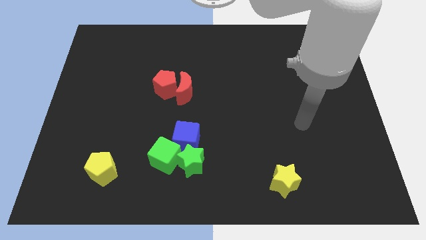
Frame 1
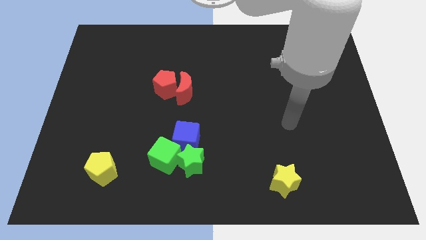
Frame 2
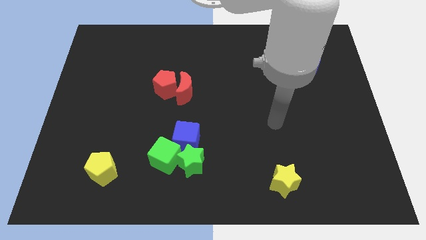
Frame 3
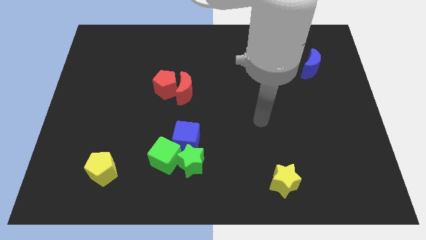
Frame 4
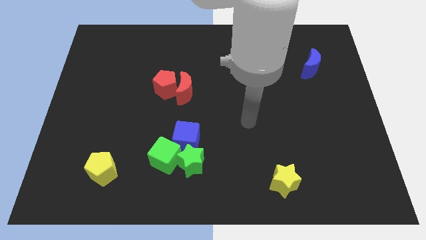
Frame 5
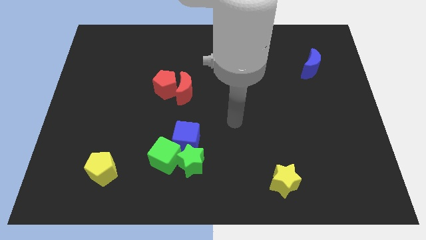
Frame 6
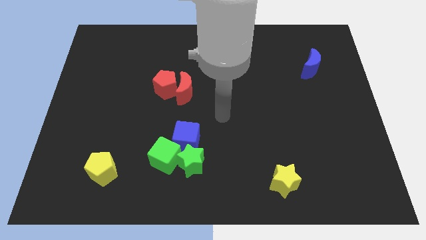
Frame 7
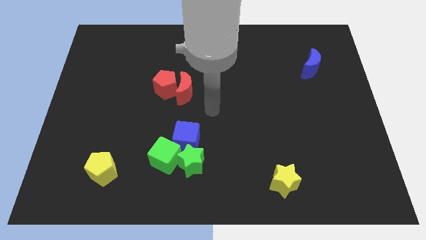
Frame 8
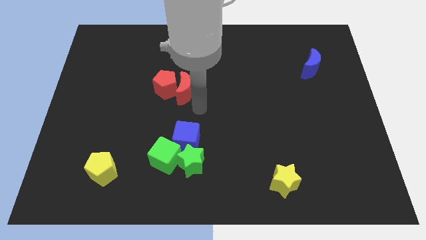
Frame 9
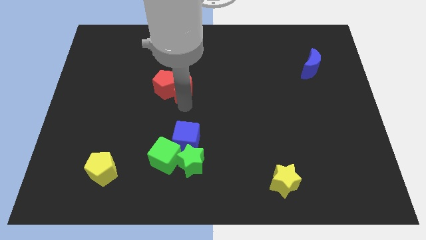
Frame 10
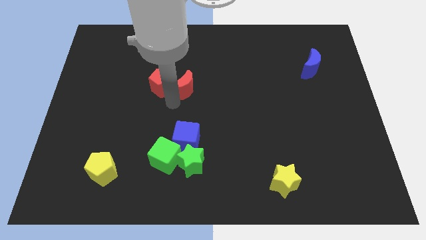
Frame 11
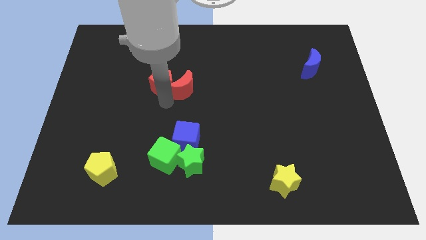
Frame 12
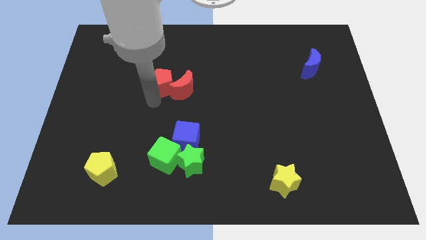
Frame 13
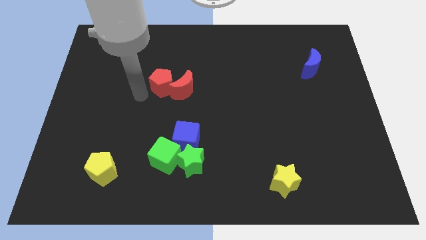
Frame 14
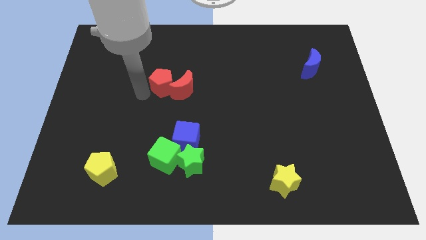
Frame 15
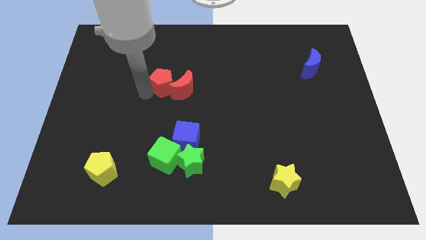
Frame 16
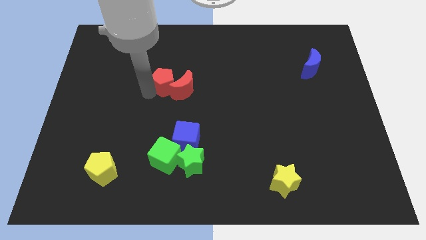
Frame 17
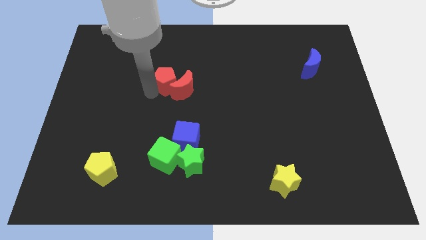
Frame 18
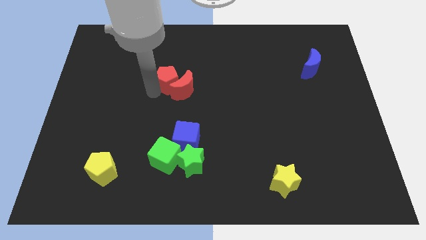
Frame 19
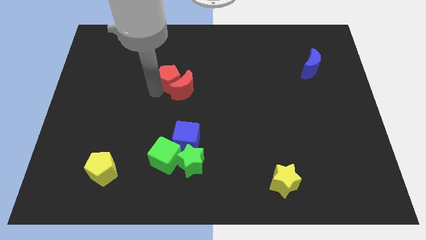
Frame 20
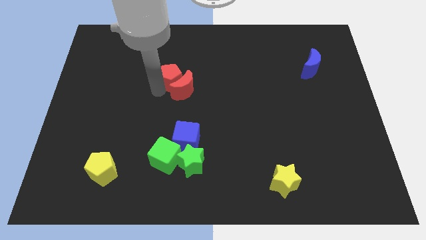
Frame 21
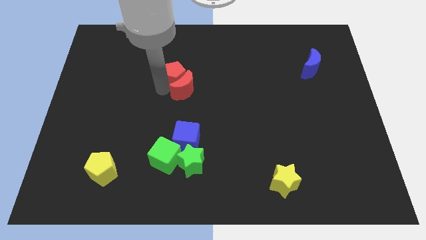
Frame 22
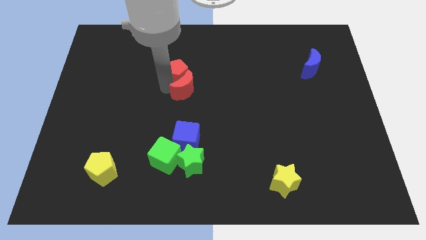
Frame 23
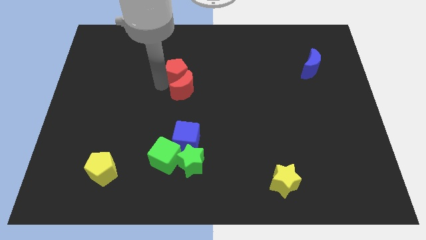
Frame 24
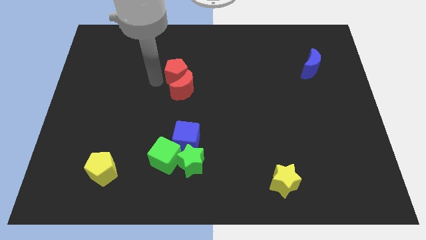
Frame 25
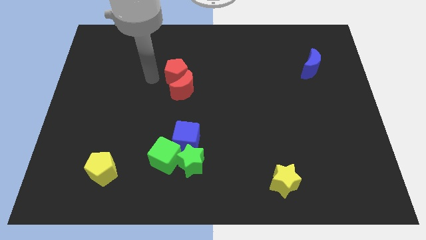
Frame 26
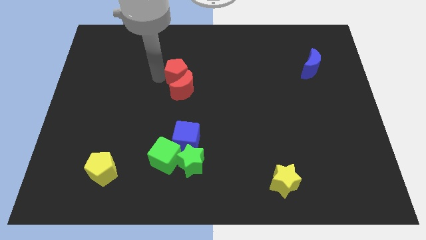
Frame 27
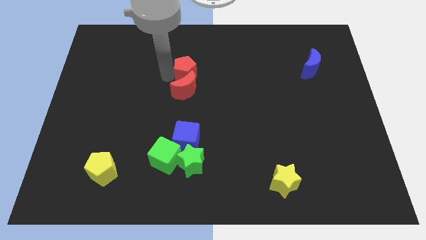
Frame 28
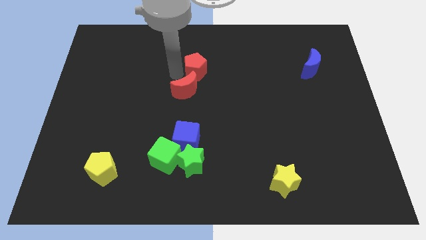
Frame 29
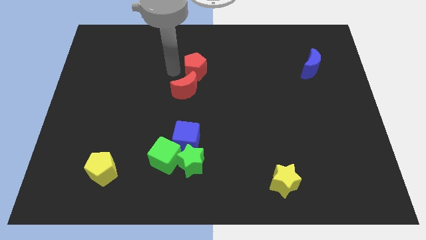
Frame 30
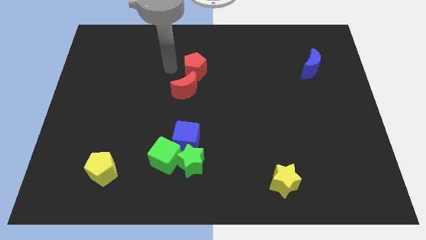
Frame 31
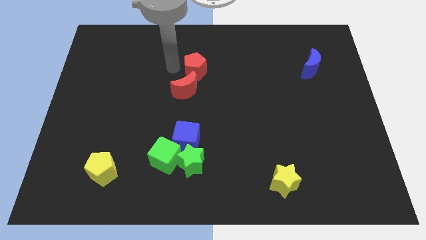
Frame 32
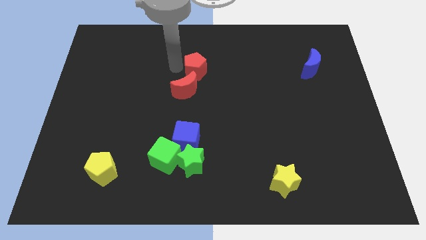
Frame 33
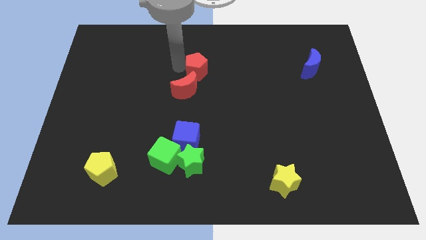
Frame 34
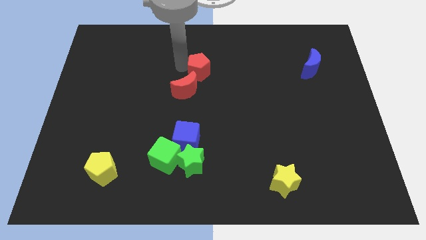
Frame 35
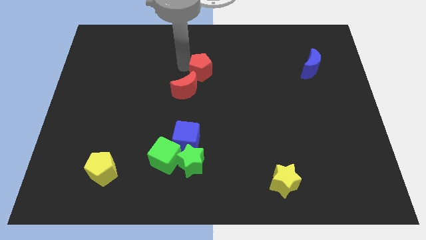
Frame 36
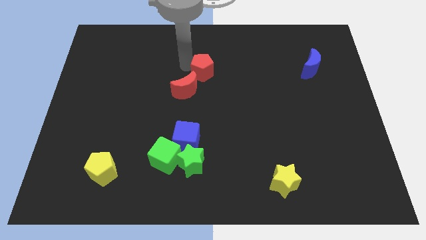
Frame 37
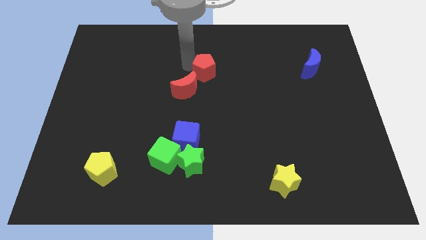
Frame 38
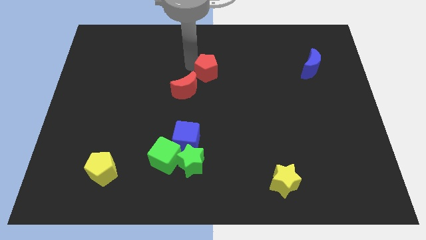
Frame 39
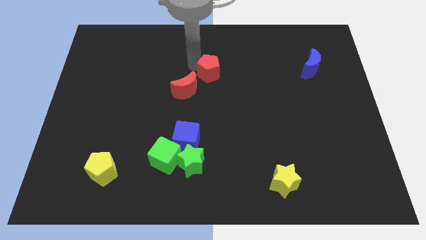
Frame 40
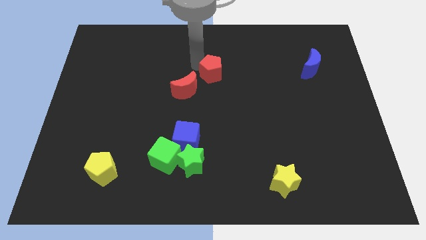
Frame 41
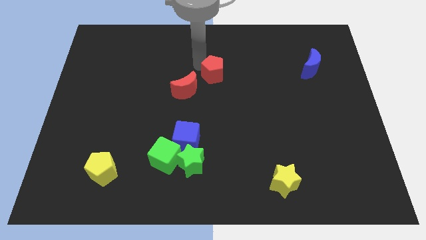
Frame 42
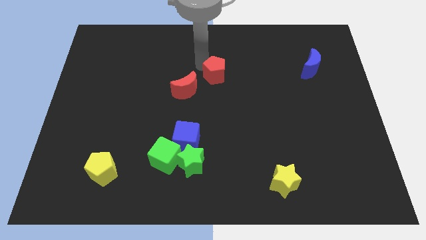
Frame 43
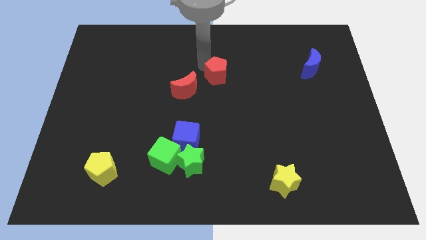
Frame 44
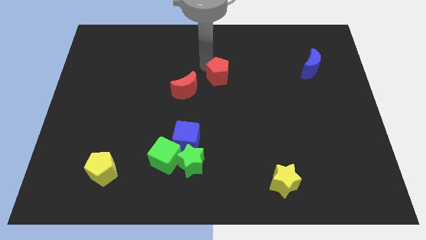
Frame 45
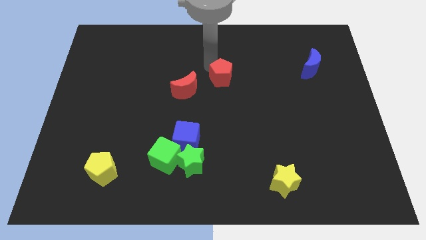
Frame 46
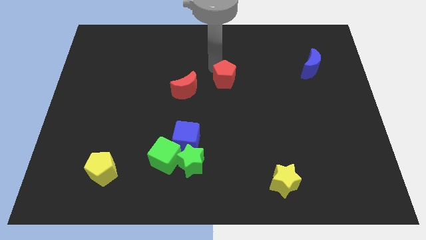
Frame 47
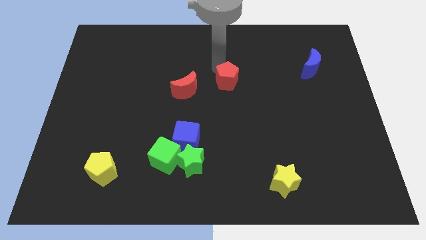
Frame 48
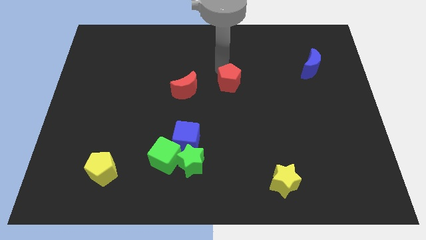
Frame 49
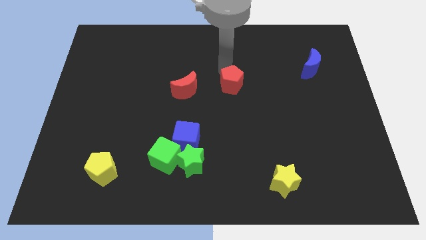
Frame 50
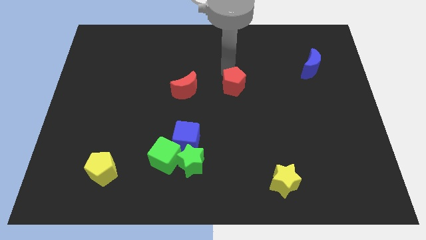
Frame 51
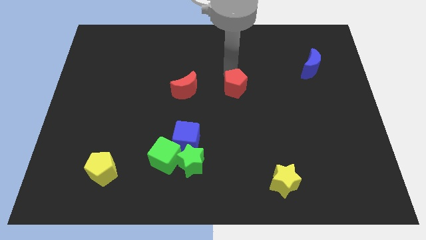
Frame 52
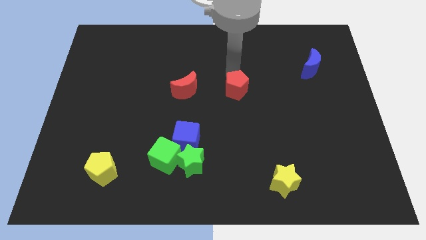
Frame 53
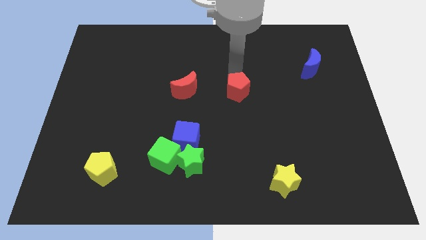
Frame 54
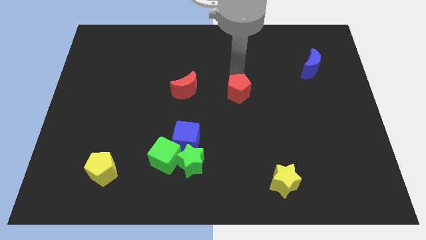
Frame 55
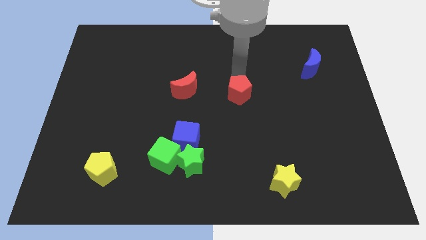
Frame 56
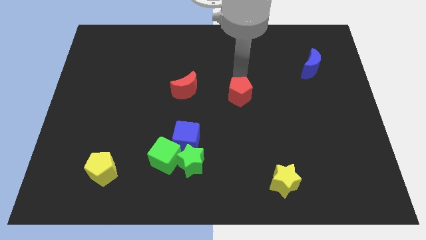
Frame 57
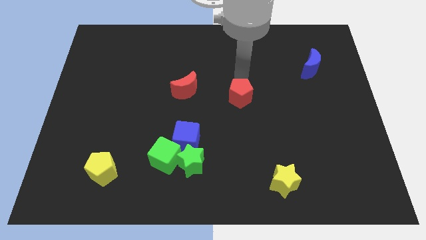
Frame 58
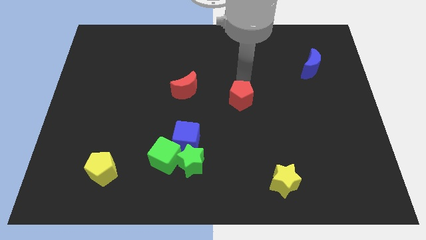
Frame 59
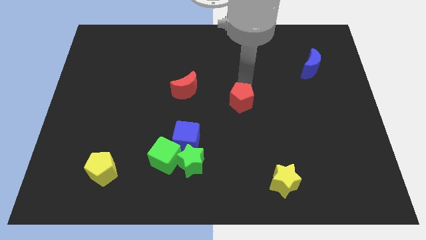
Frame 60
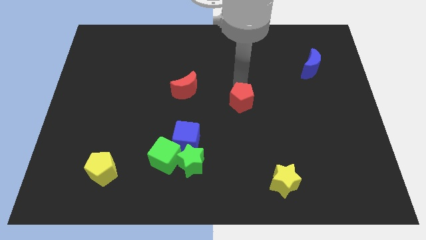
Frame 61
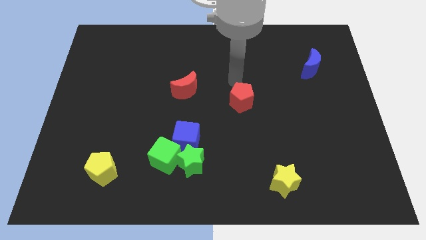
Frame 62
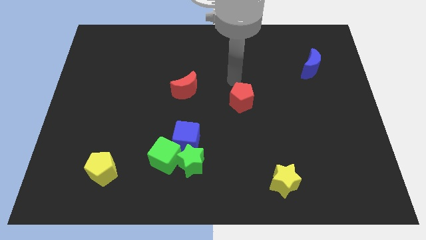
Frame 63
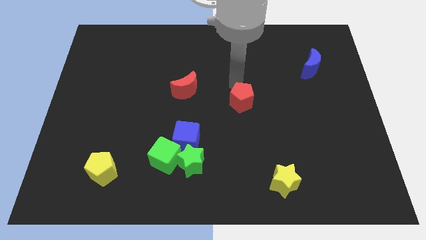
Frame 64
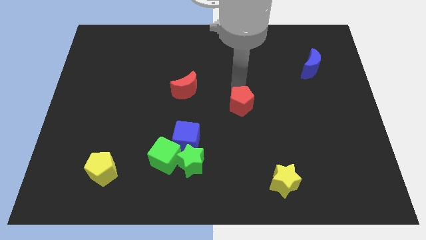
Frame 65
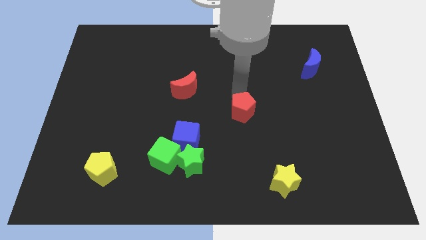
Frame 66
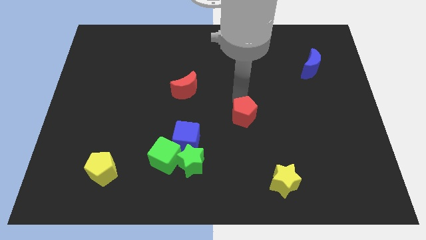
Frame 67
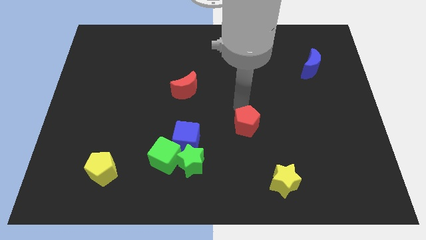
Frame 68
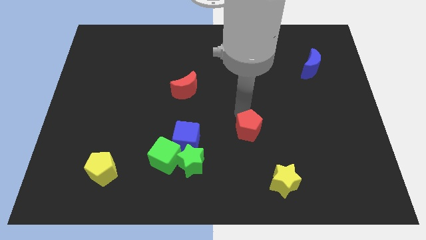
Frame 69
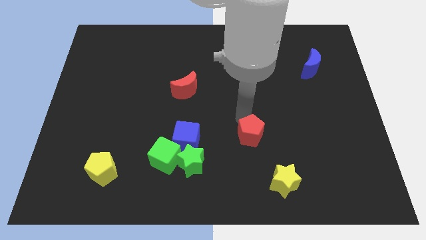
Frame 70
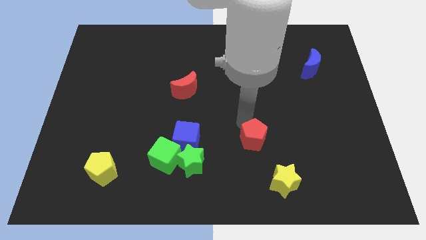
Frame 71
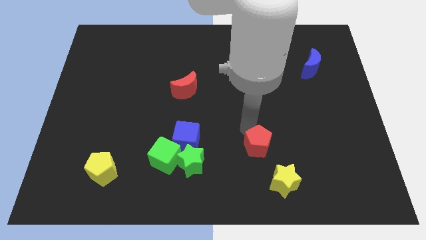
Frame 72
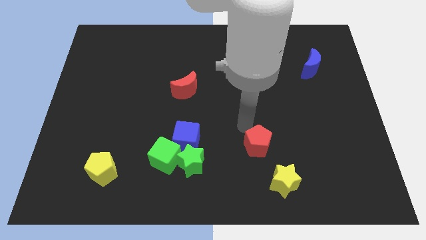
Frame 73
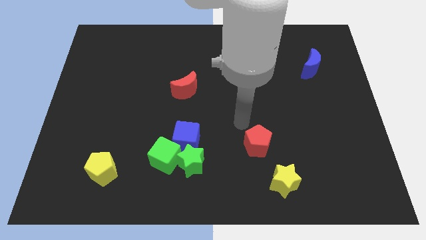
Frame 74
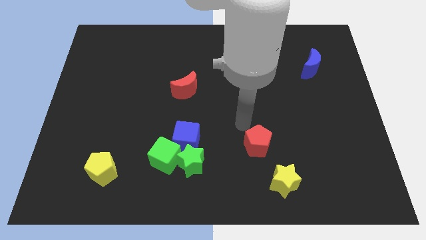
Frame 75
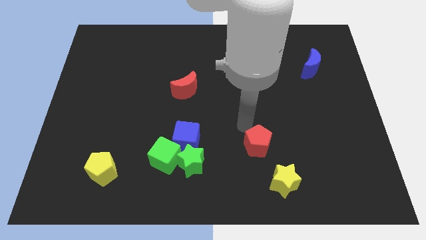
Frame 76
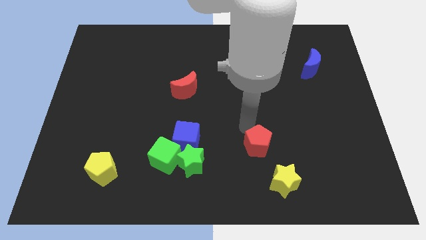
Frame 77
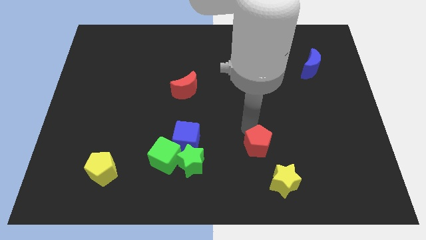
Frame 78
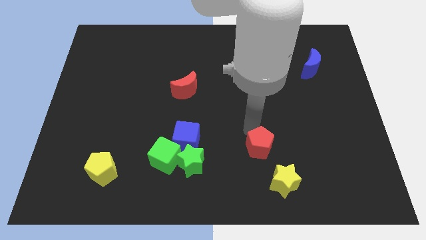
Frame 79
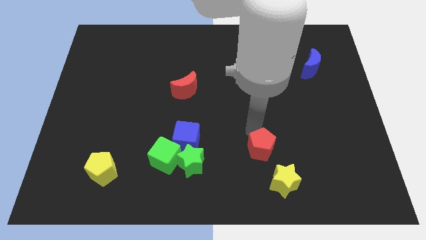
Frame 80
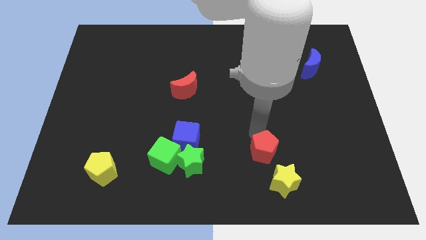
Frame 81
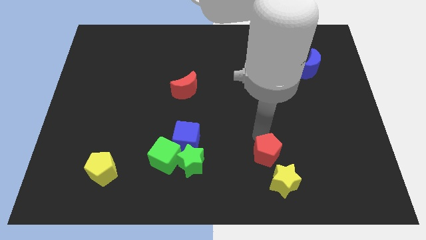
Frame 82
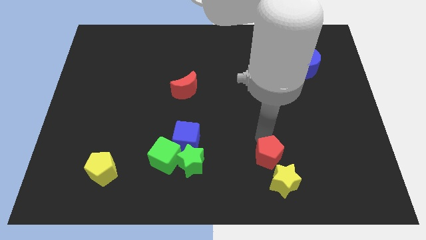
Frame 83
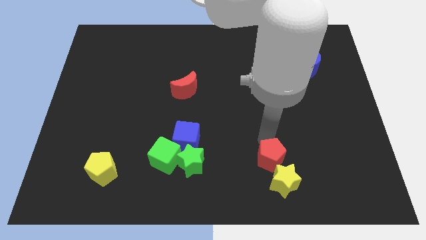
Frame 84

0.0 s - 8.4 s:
move the red pentagon close to the yellow star
